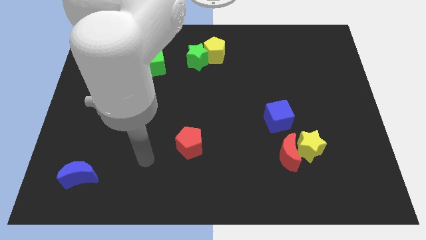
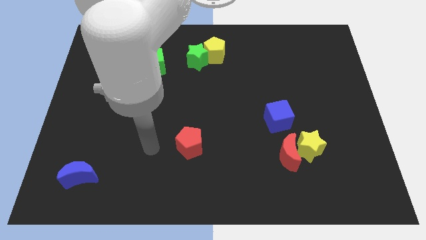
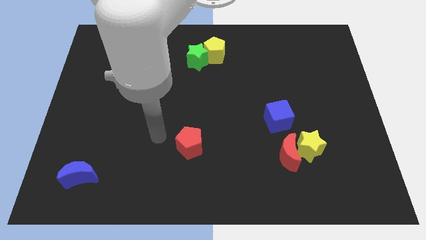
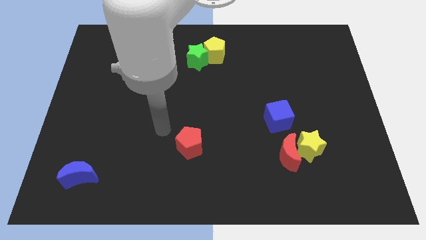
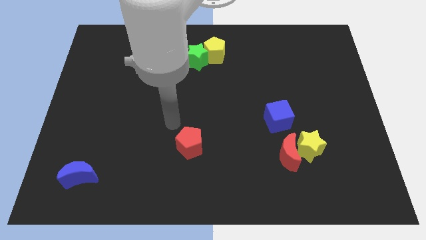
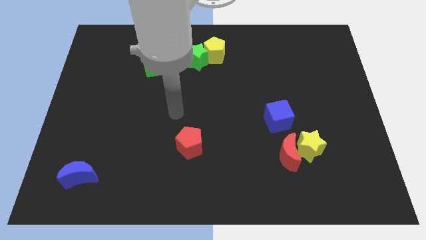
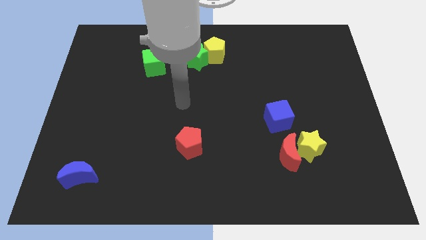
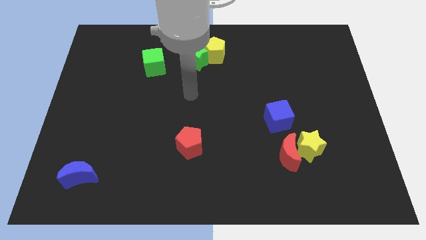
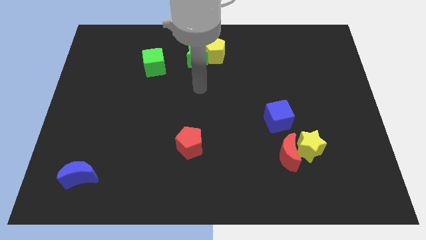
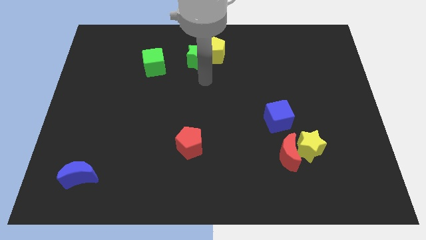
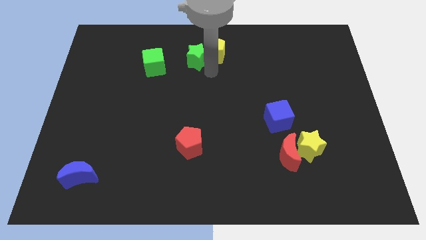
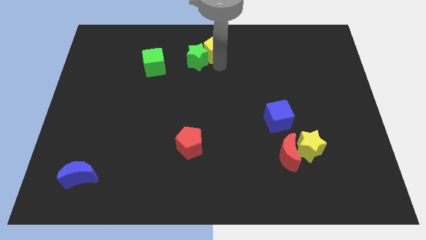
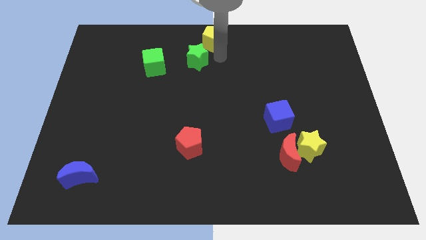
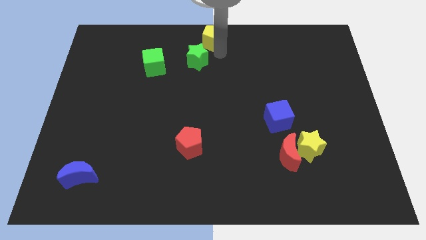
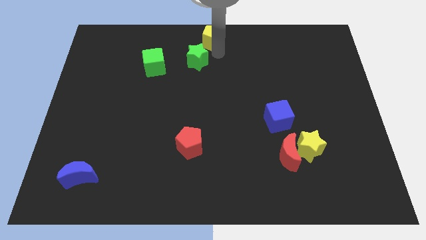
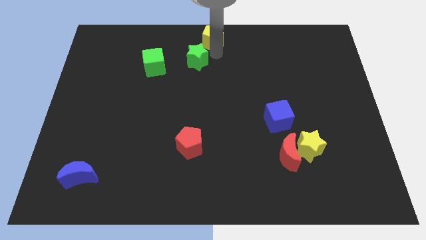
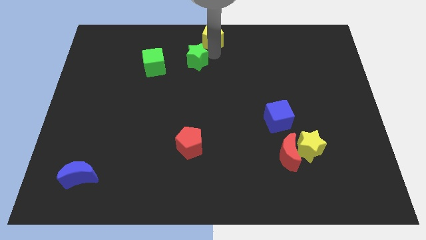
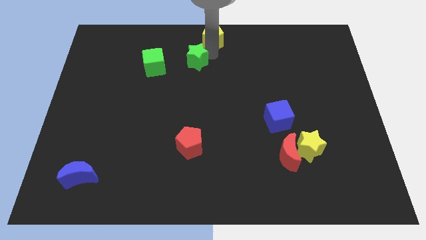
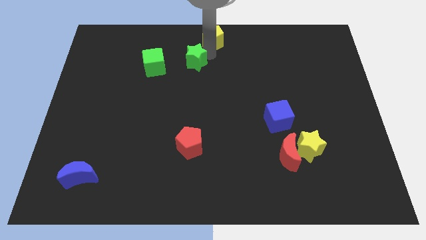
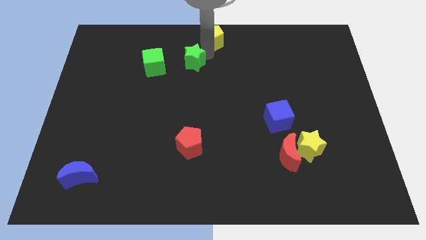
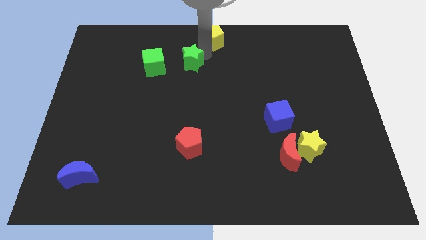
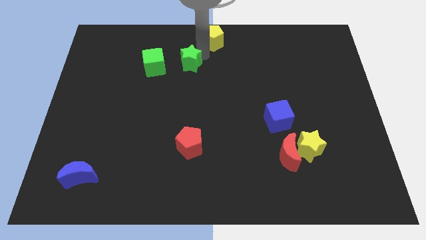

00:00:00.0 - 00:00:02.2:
move the green star away from the yellow pentagon

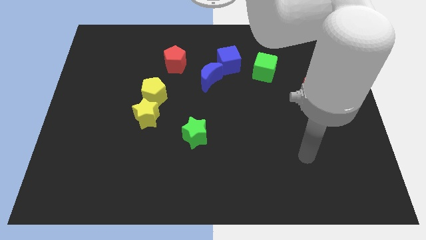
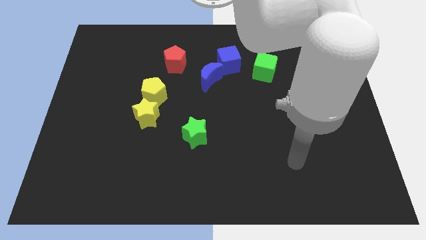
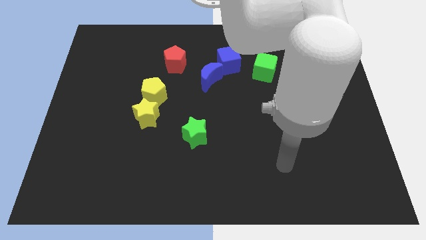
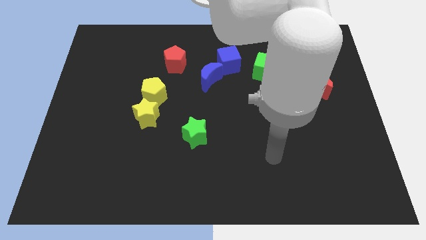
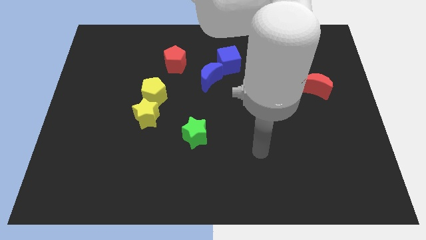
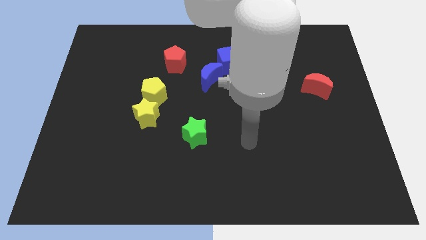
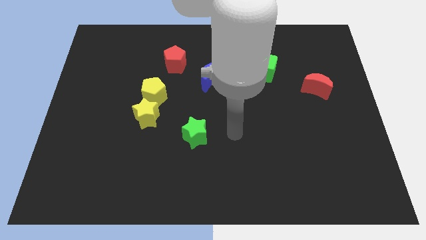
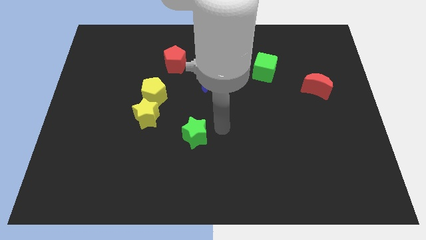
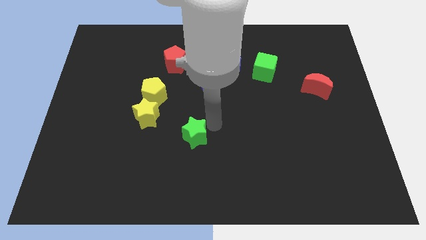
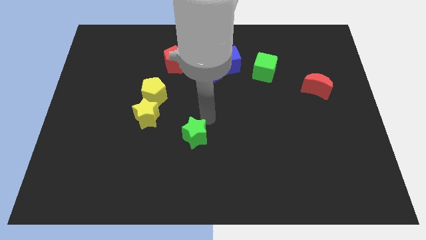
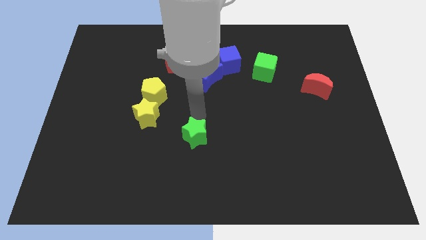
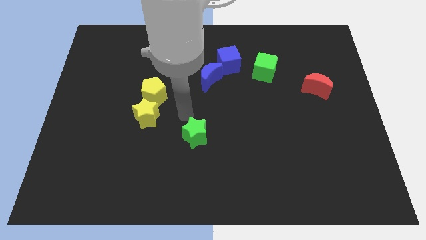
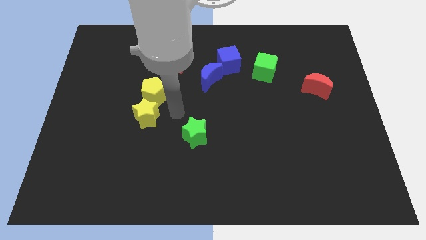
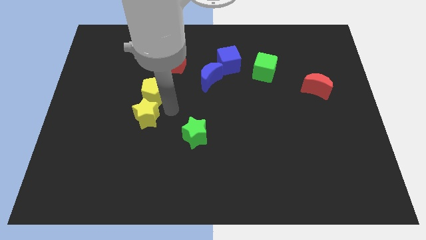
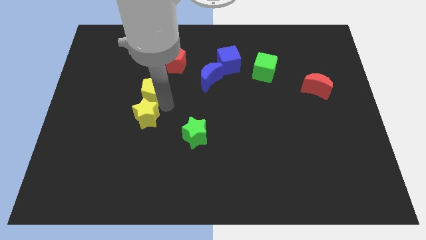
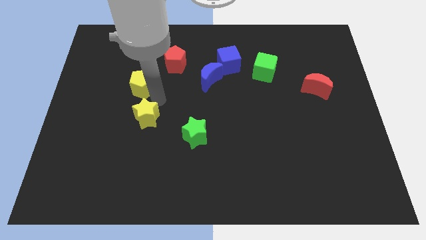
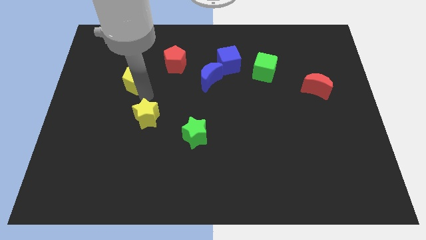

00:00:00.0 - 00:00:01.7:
move the yellow star away from the yellow pentagon

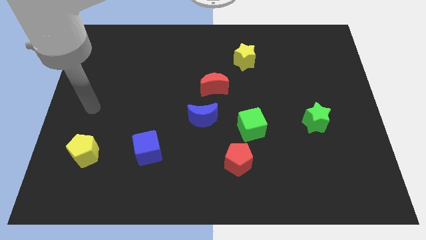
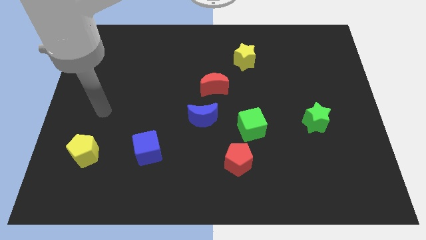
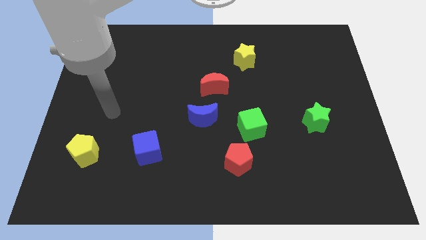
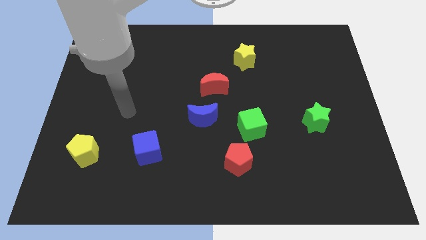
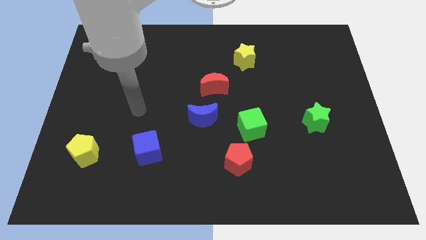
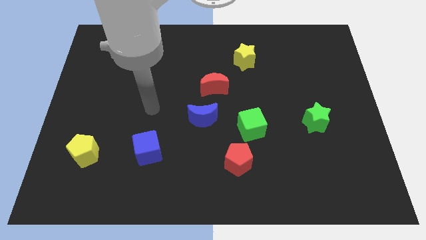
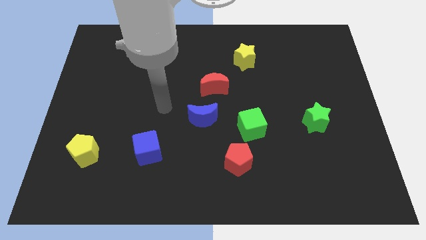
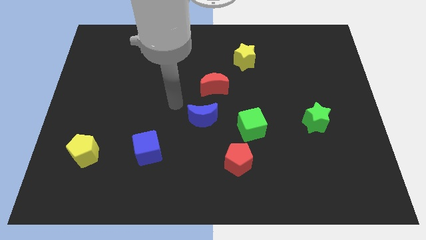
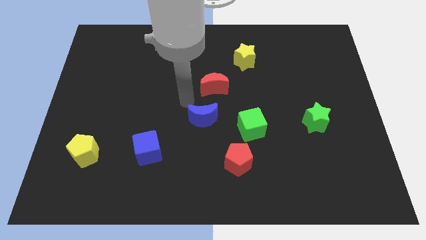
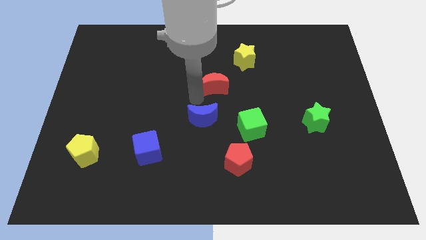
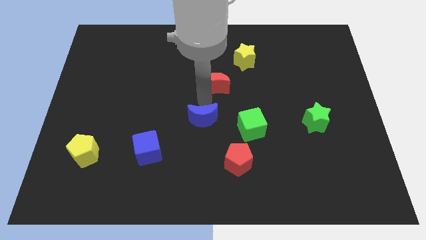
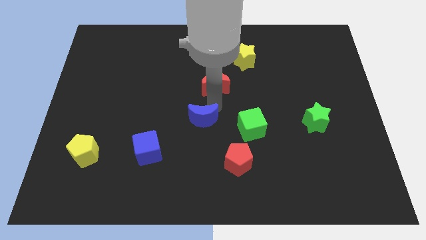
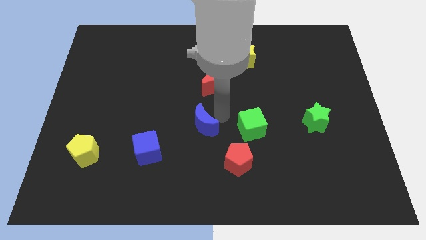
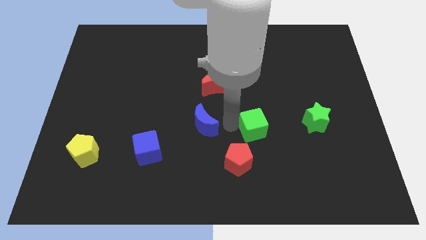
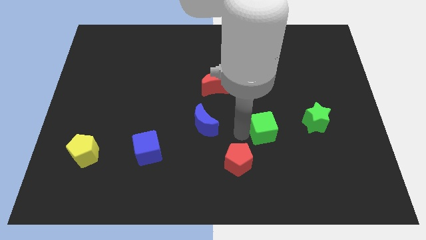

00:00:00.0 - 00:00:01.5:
move the red pentagon away from the green cube

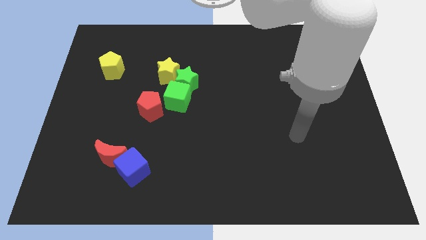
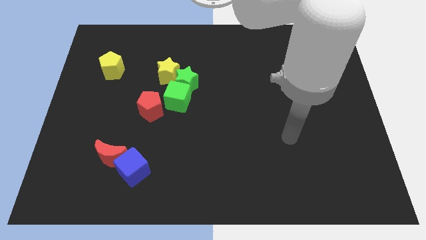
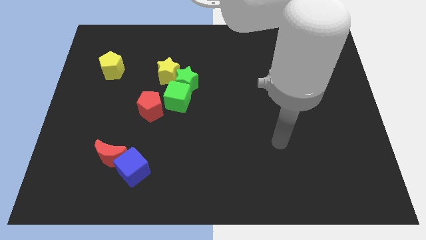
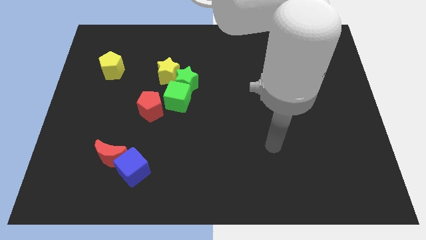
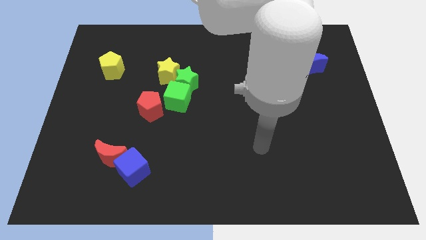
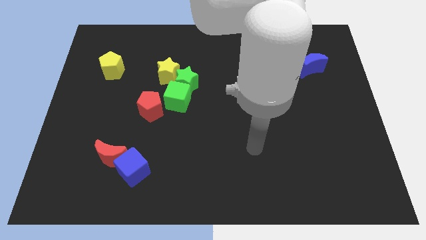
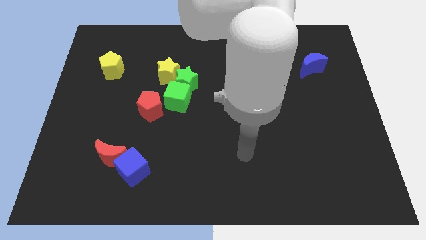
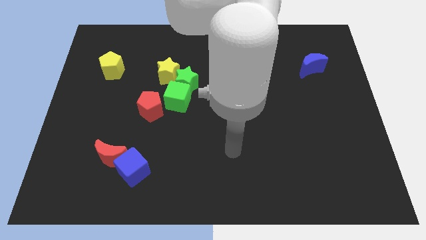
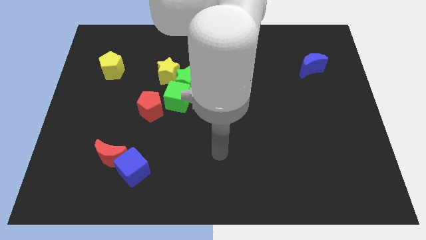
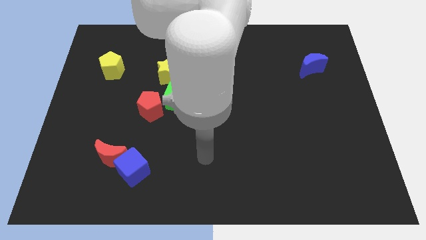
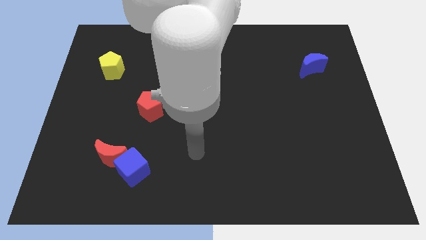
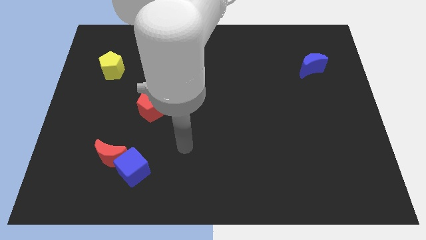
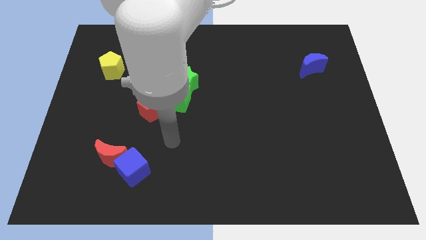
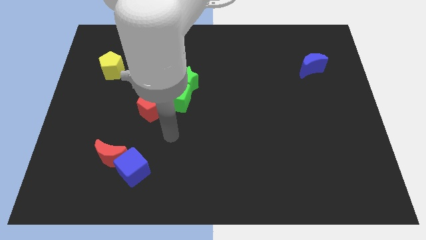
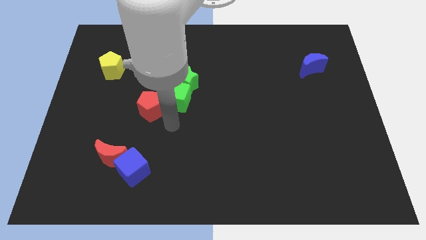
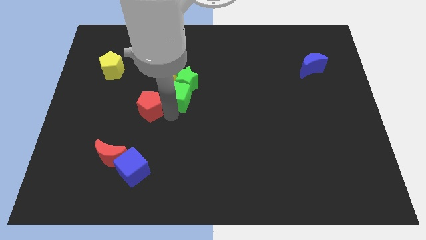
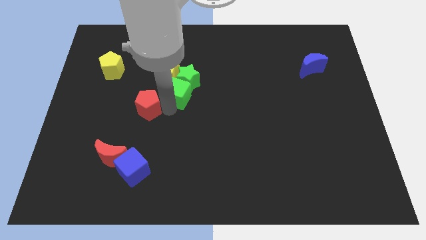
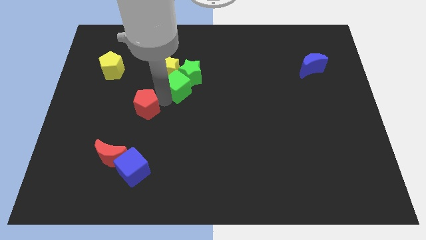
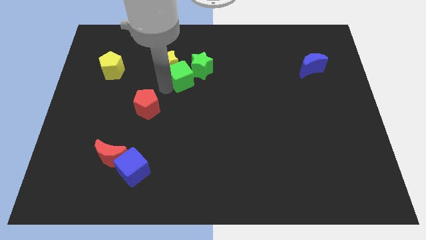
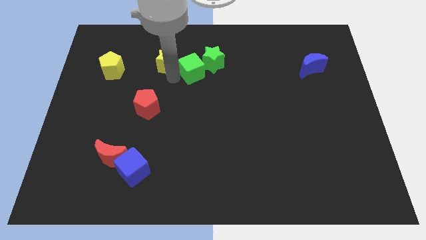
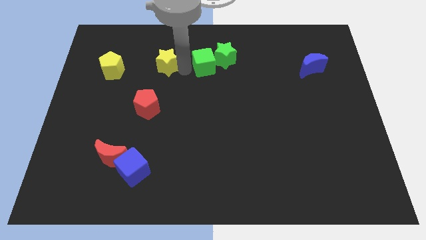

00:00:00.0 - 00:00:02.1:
separate the green star from the green cube and yellow star

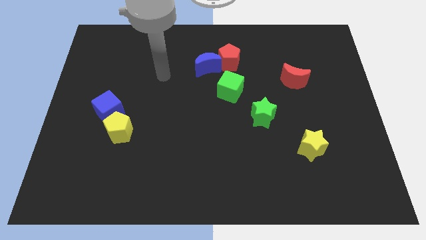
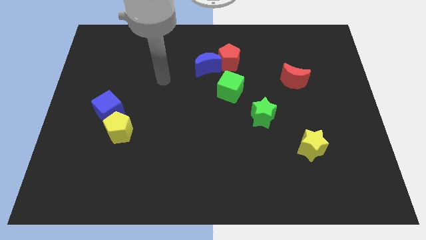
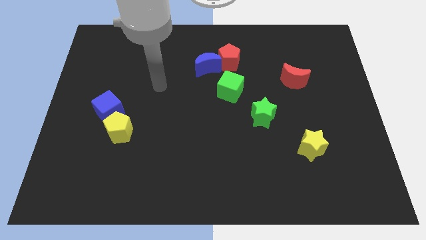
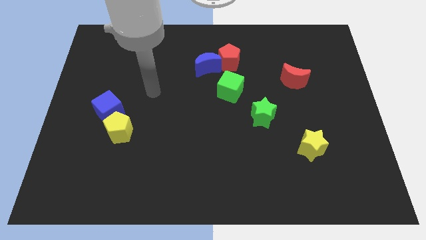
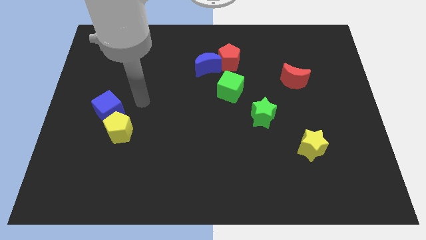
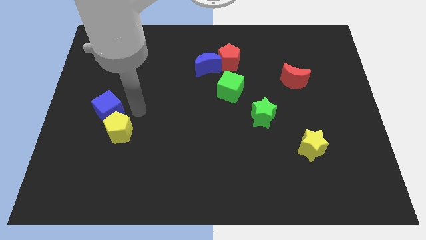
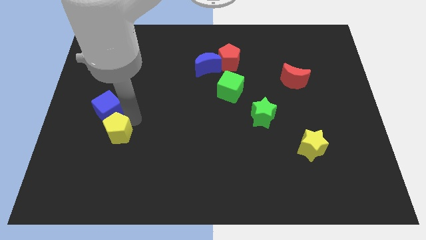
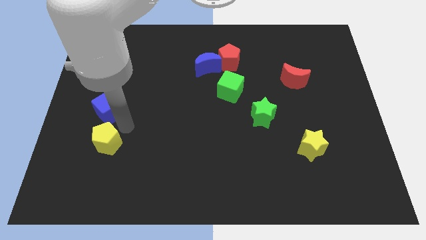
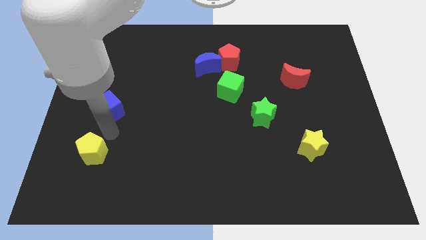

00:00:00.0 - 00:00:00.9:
separate the blue cube from the yellow pentagon

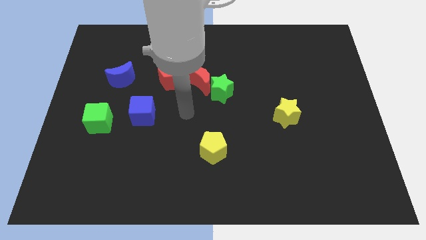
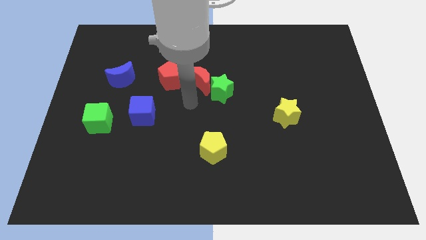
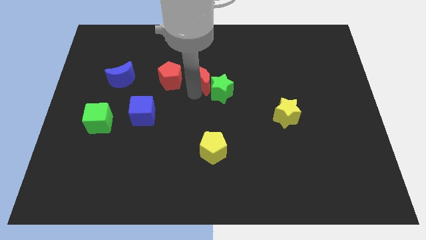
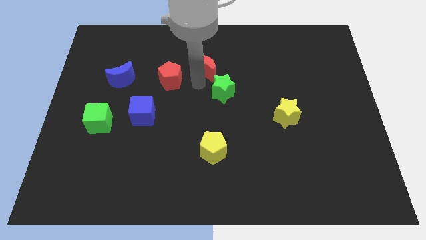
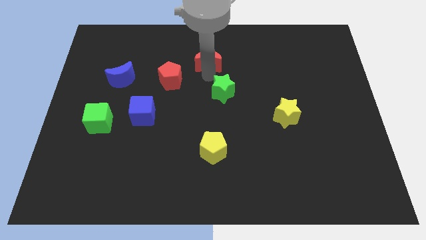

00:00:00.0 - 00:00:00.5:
separate the green star from the red moon

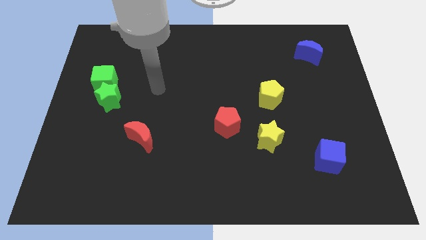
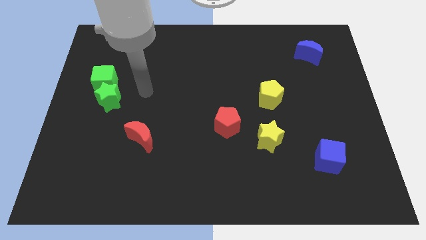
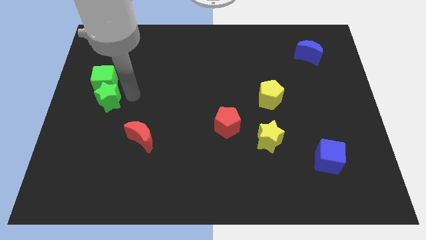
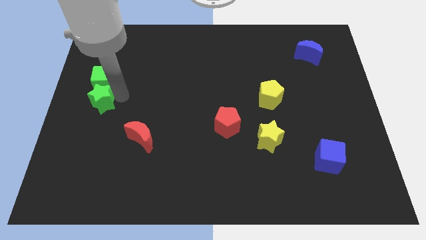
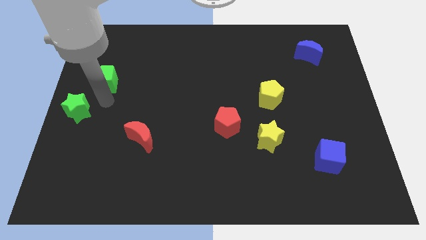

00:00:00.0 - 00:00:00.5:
separate the green cube from the green star

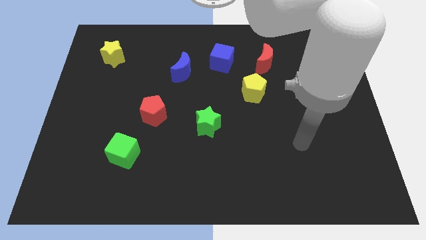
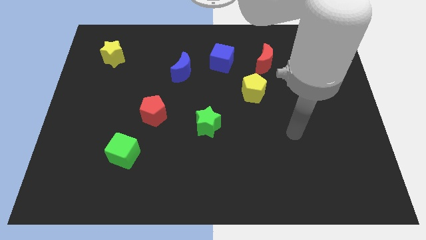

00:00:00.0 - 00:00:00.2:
move the red moon away from the yellow pentagon
